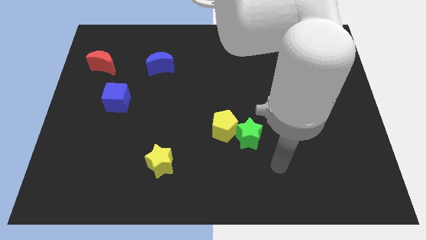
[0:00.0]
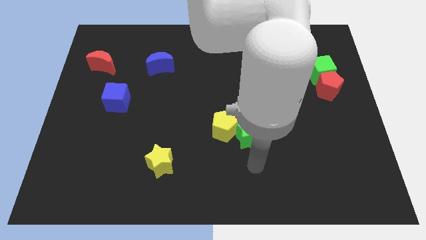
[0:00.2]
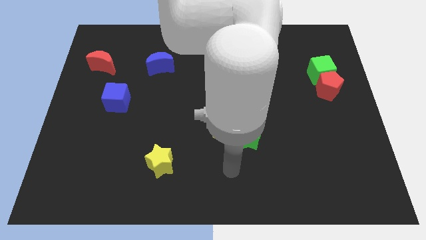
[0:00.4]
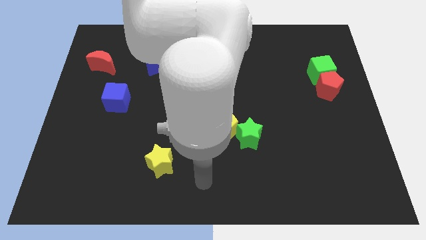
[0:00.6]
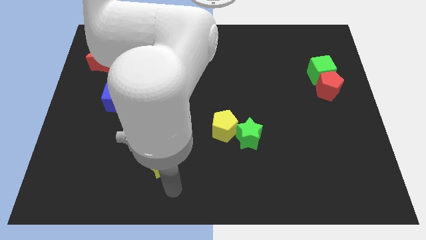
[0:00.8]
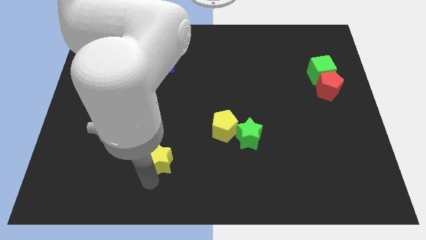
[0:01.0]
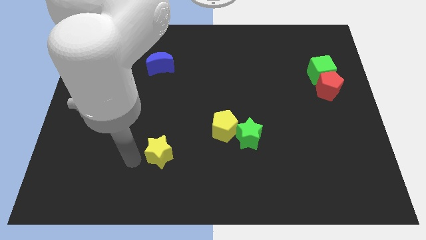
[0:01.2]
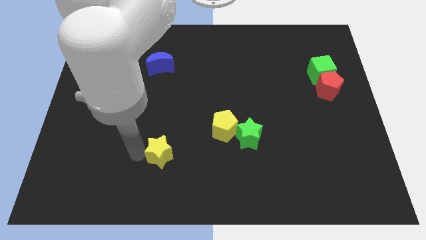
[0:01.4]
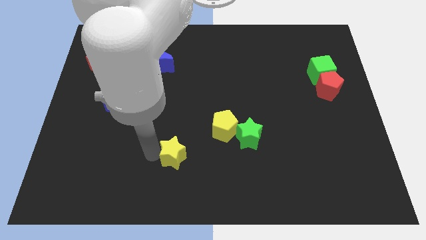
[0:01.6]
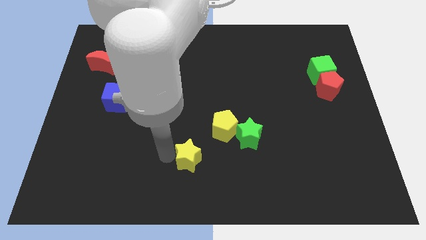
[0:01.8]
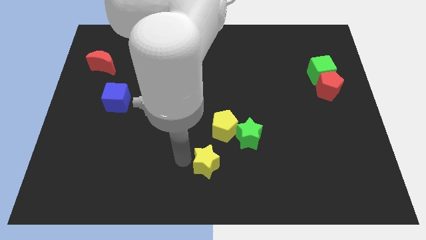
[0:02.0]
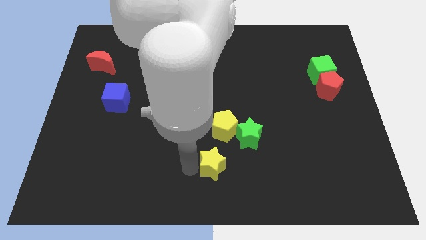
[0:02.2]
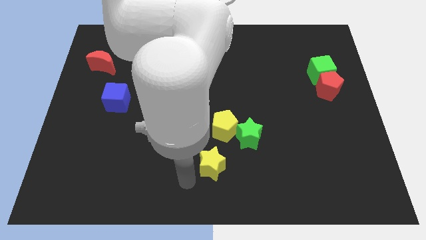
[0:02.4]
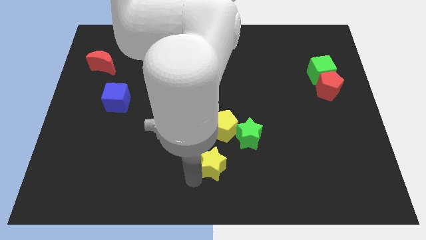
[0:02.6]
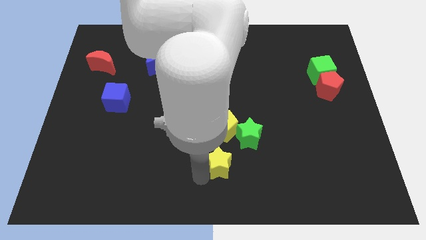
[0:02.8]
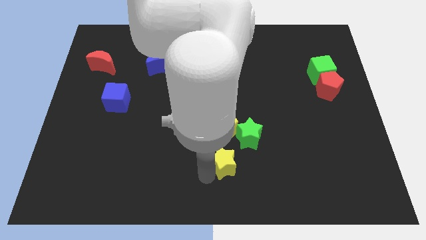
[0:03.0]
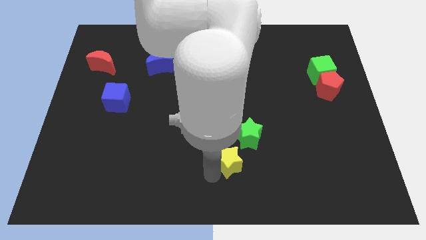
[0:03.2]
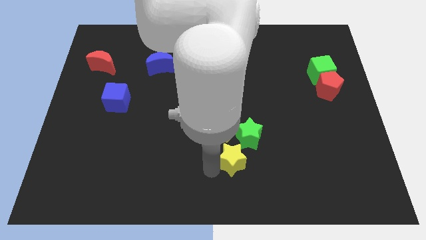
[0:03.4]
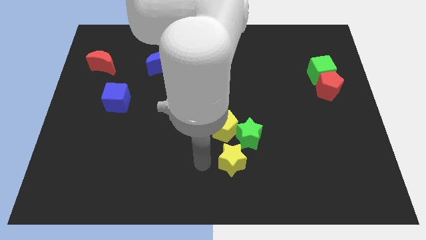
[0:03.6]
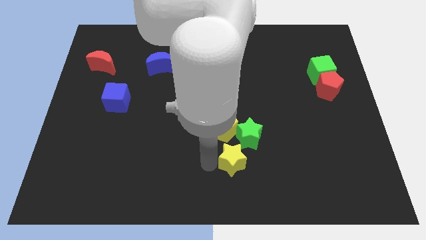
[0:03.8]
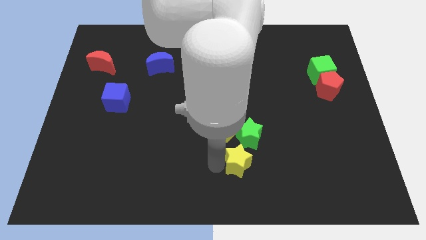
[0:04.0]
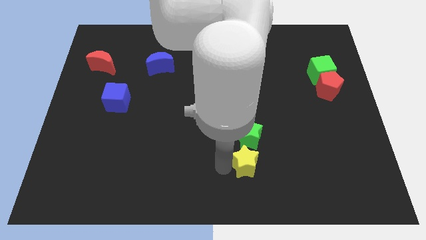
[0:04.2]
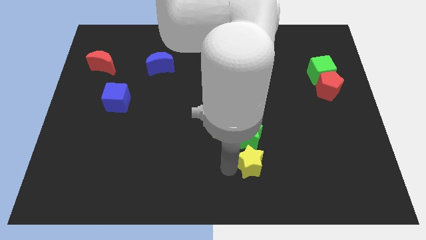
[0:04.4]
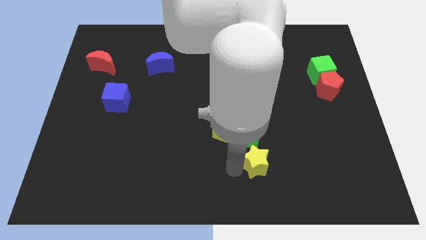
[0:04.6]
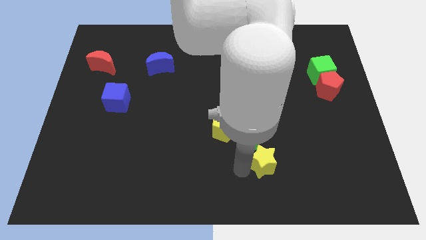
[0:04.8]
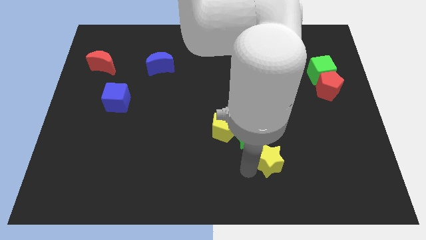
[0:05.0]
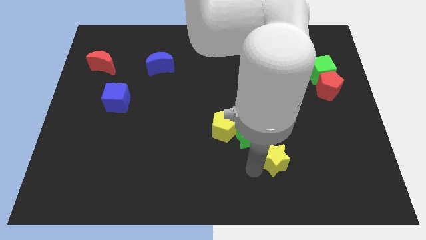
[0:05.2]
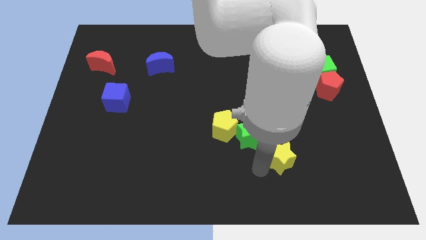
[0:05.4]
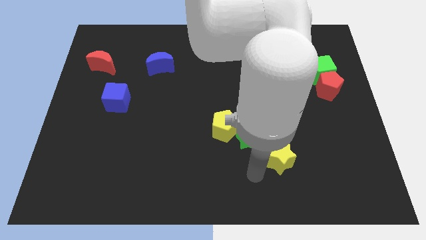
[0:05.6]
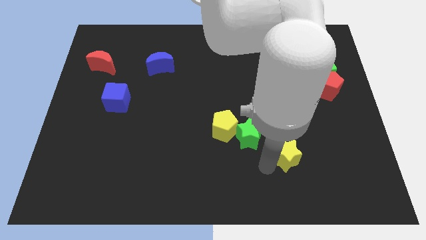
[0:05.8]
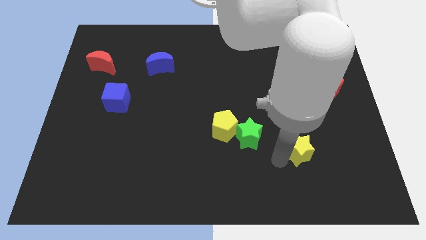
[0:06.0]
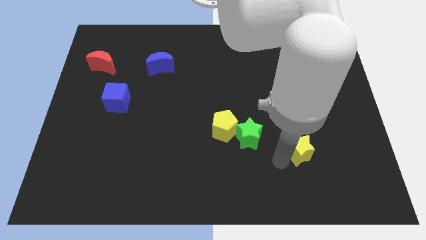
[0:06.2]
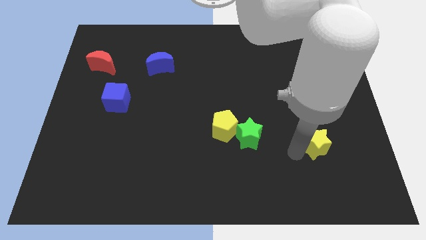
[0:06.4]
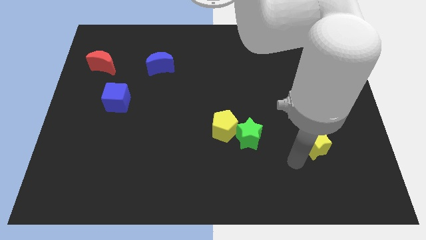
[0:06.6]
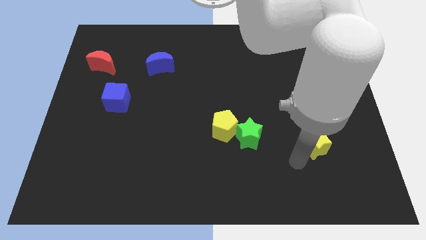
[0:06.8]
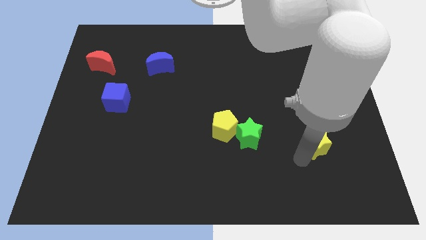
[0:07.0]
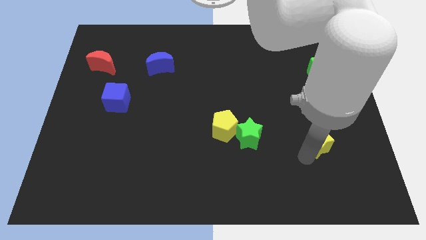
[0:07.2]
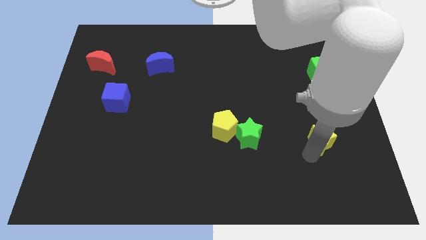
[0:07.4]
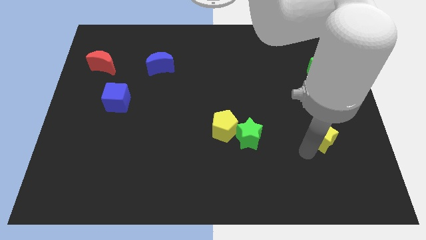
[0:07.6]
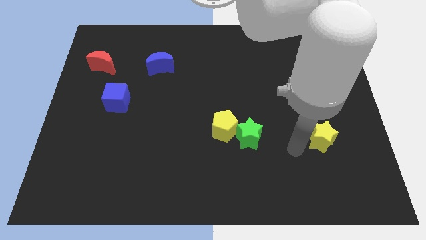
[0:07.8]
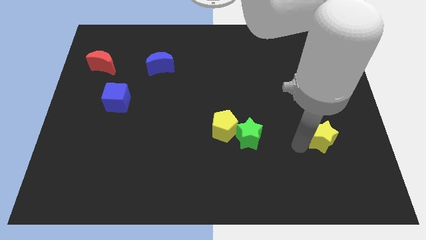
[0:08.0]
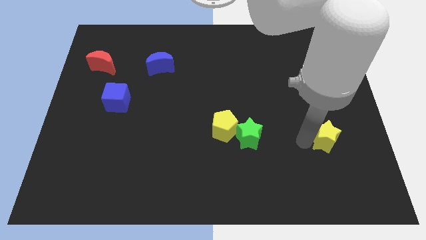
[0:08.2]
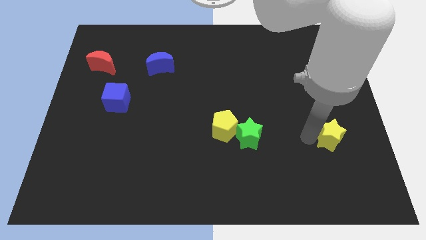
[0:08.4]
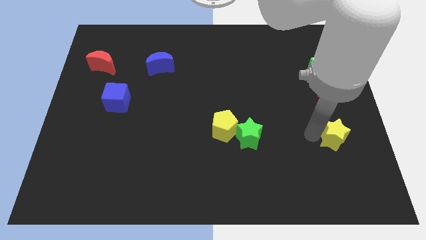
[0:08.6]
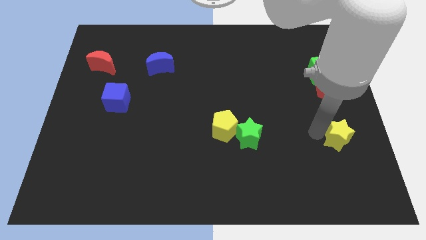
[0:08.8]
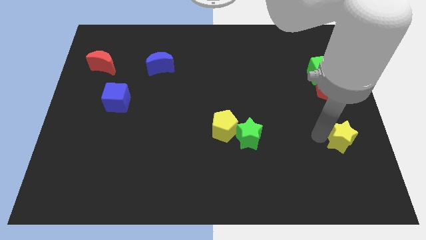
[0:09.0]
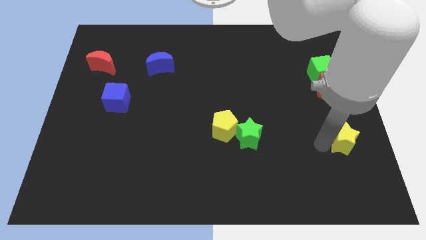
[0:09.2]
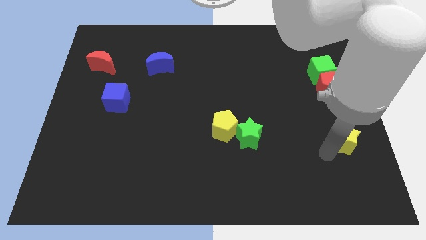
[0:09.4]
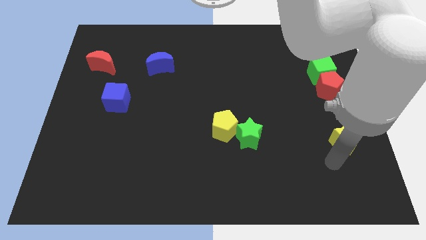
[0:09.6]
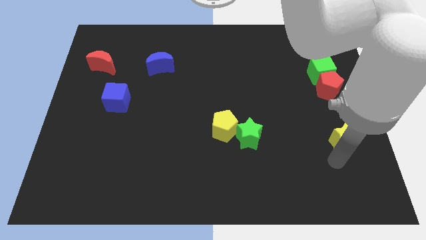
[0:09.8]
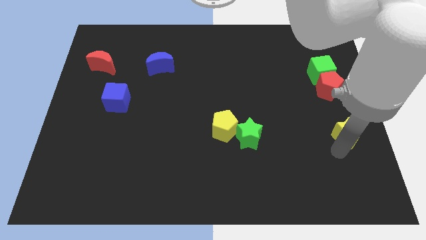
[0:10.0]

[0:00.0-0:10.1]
put the yellow star to the right side of the board

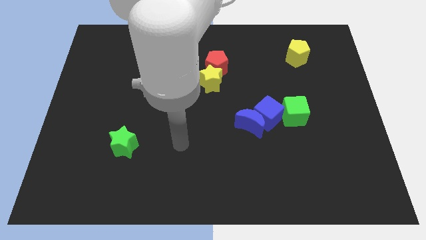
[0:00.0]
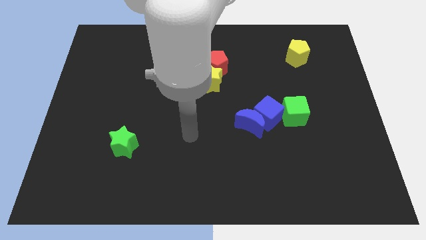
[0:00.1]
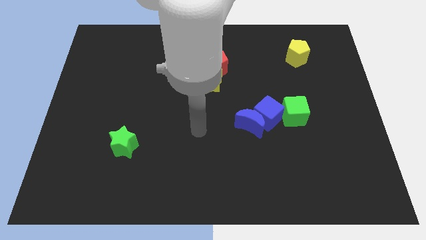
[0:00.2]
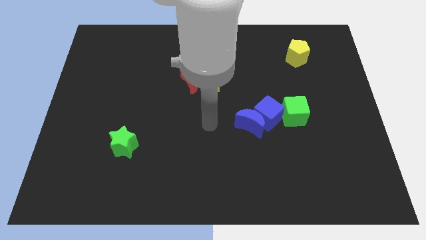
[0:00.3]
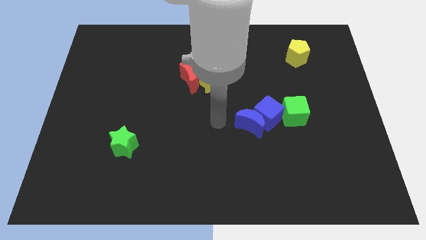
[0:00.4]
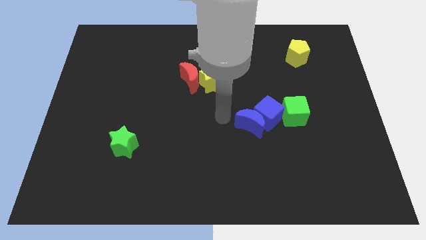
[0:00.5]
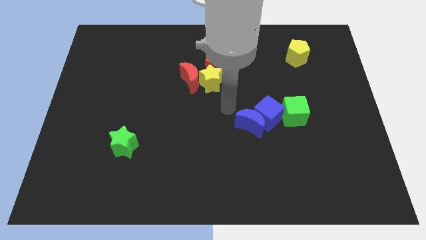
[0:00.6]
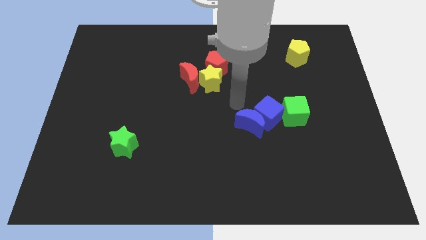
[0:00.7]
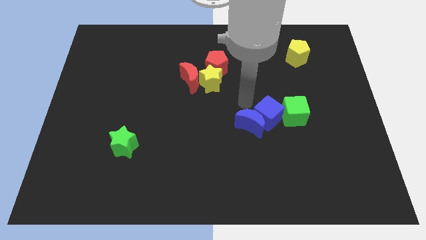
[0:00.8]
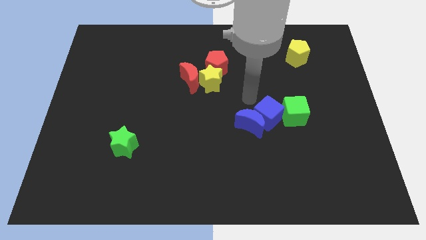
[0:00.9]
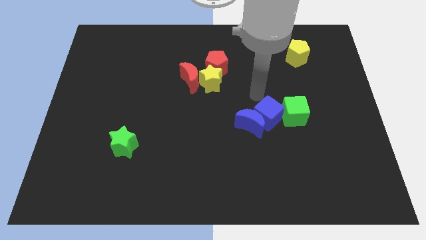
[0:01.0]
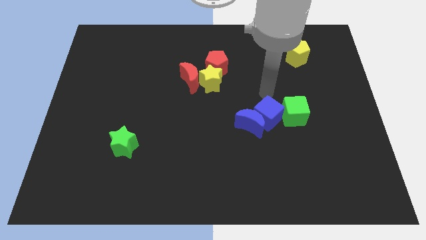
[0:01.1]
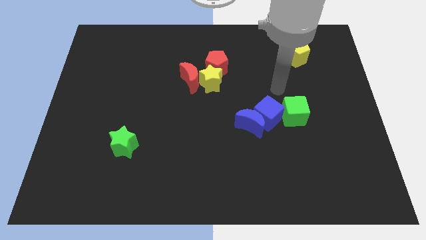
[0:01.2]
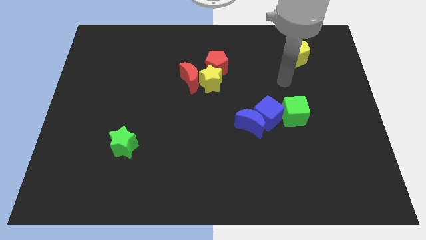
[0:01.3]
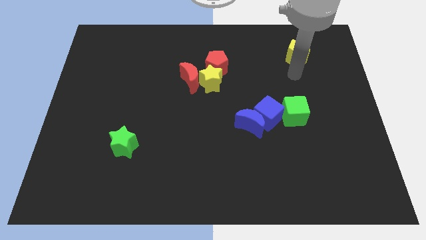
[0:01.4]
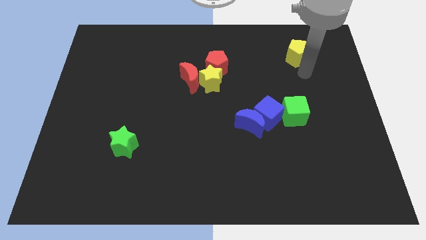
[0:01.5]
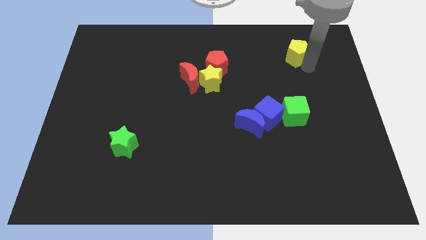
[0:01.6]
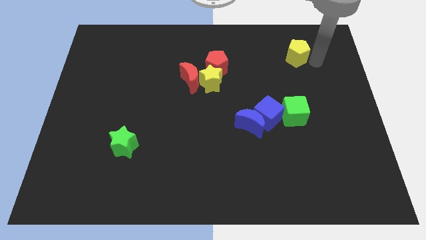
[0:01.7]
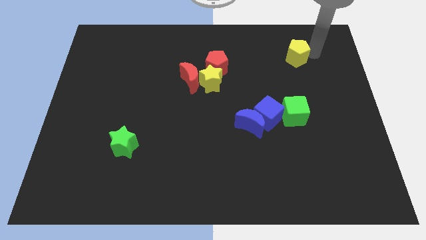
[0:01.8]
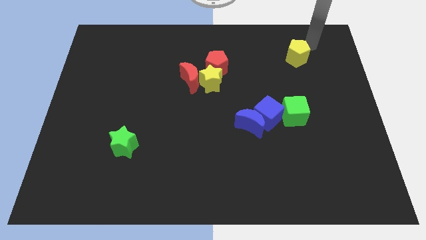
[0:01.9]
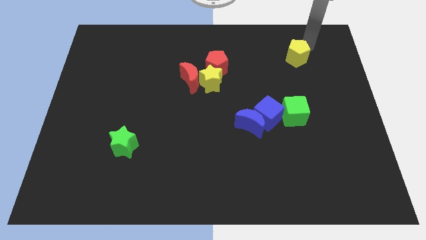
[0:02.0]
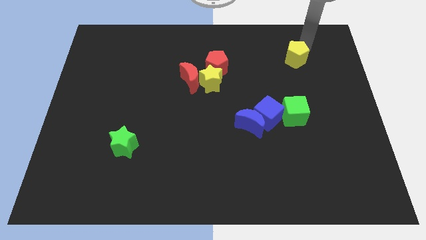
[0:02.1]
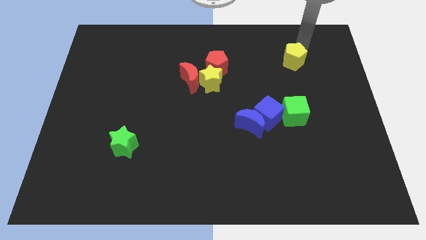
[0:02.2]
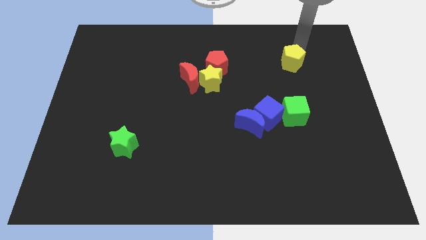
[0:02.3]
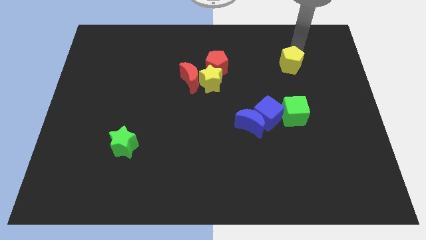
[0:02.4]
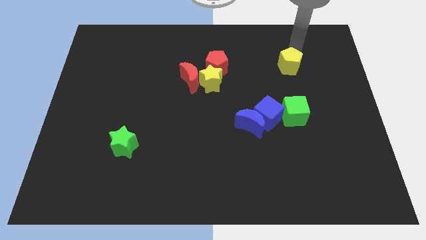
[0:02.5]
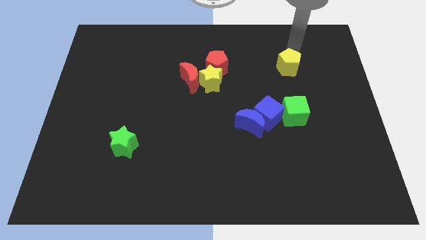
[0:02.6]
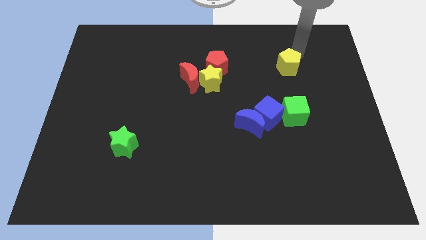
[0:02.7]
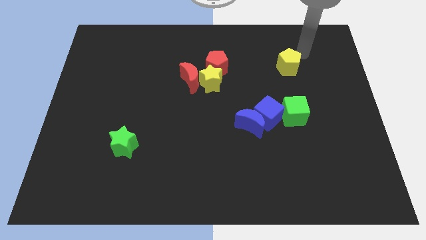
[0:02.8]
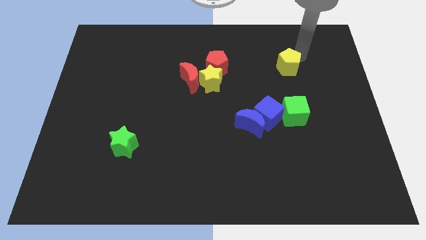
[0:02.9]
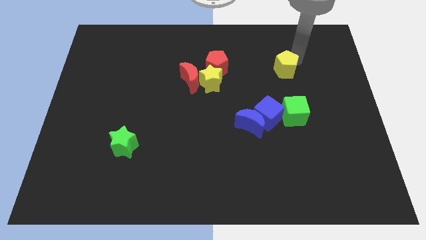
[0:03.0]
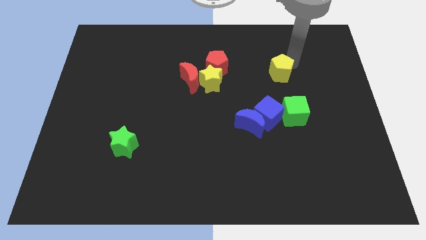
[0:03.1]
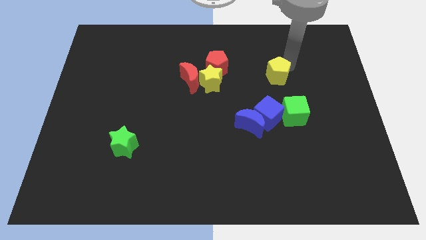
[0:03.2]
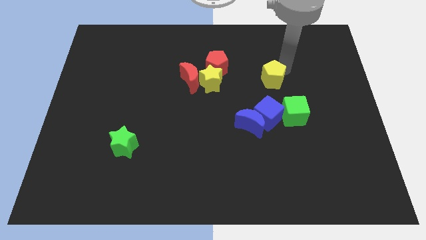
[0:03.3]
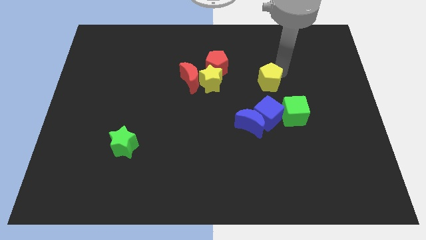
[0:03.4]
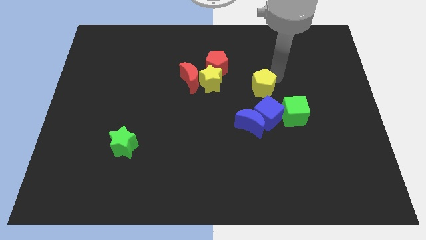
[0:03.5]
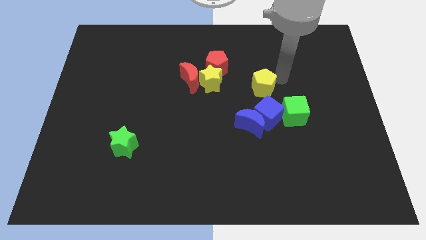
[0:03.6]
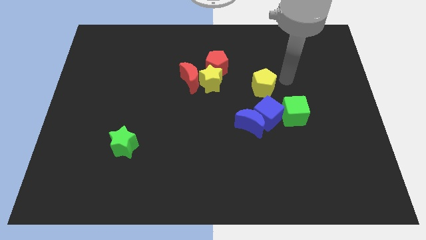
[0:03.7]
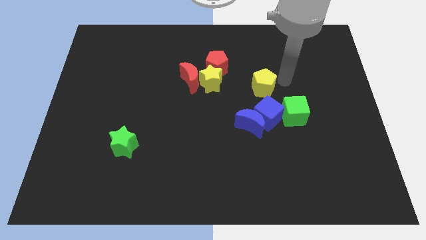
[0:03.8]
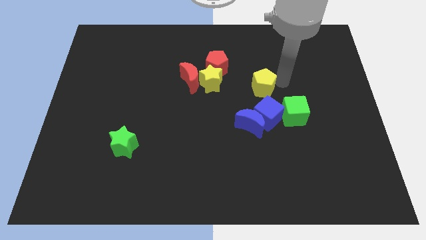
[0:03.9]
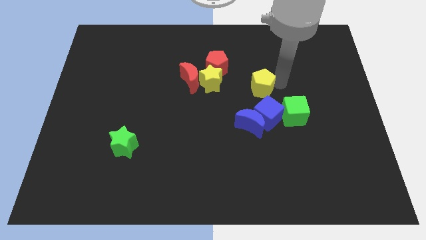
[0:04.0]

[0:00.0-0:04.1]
move the yellow pentagon to the center
